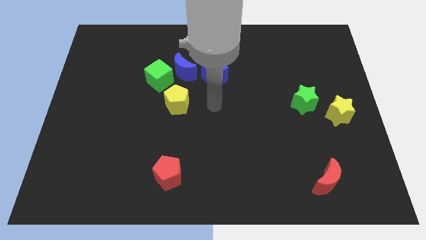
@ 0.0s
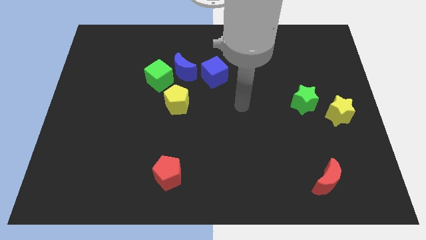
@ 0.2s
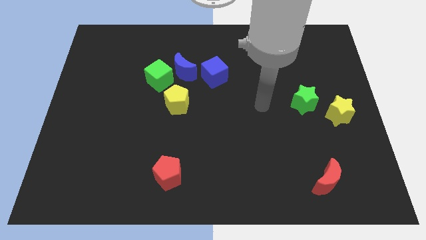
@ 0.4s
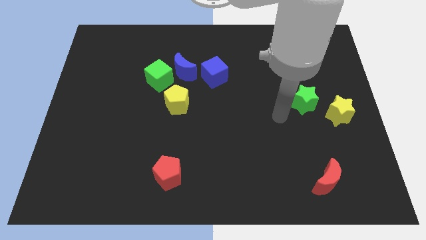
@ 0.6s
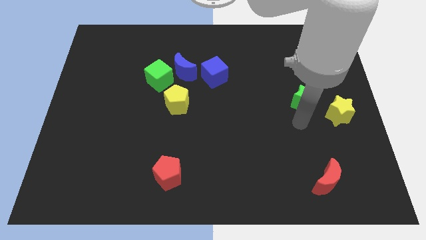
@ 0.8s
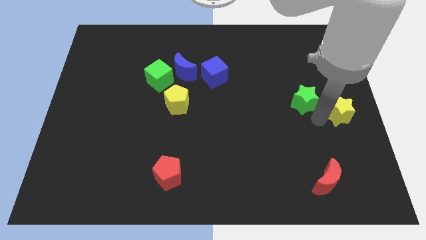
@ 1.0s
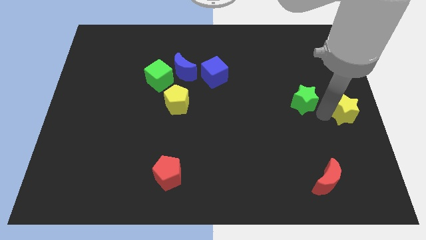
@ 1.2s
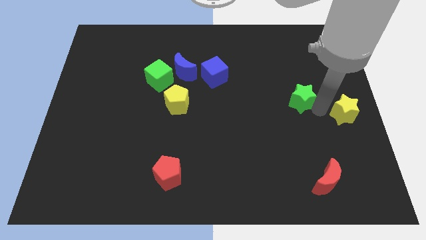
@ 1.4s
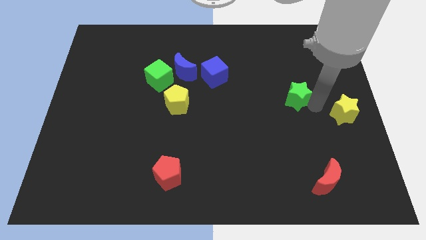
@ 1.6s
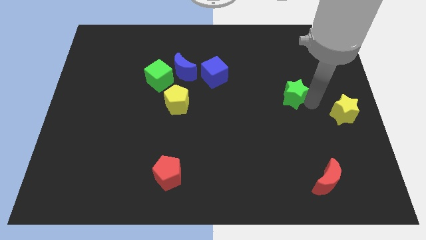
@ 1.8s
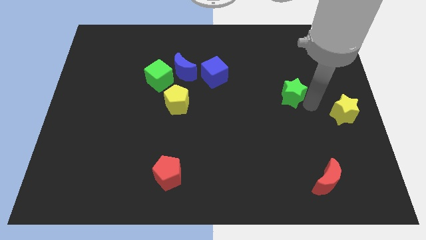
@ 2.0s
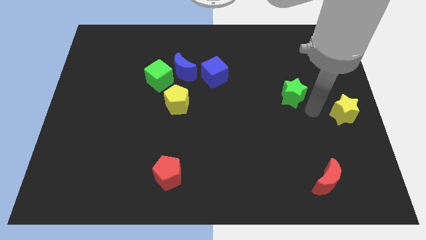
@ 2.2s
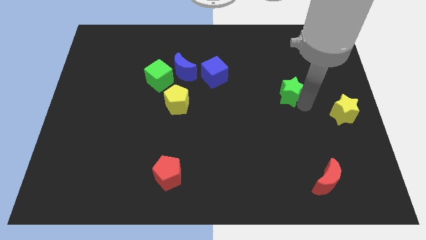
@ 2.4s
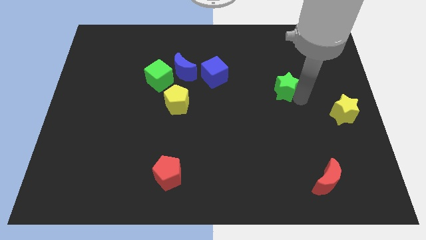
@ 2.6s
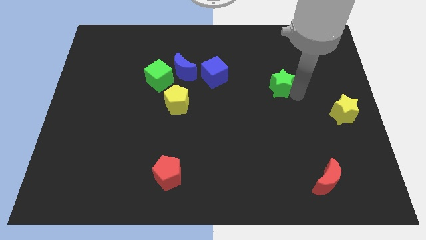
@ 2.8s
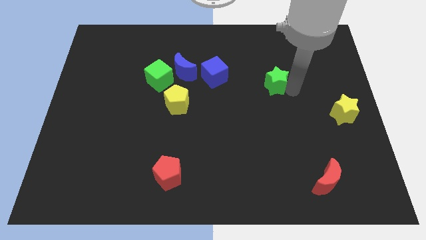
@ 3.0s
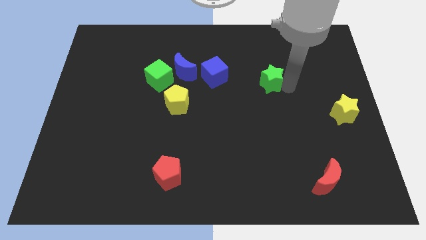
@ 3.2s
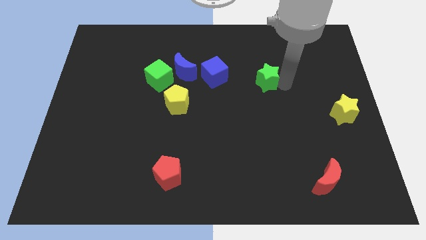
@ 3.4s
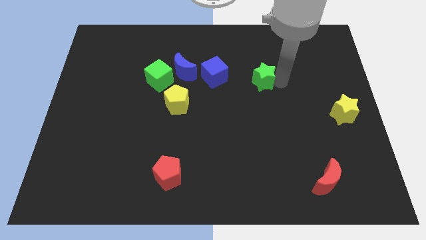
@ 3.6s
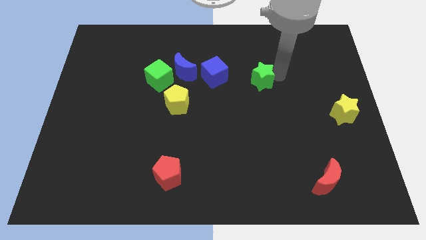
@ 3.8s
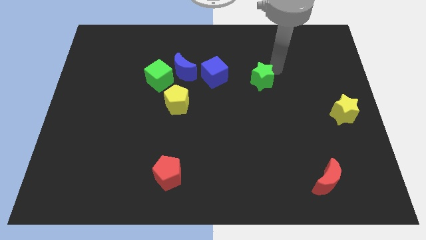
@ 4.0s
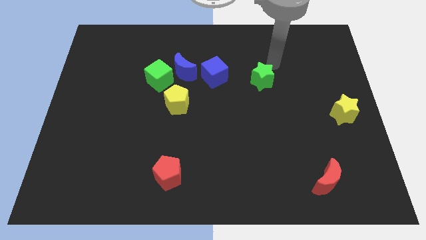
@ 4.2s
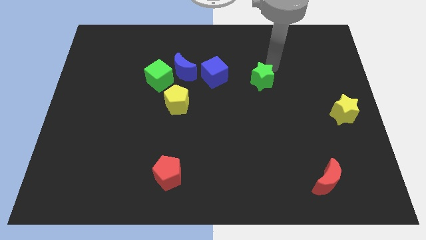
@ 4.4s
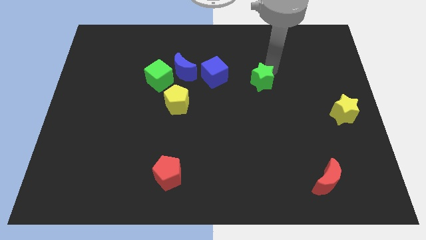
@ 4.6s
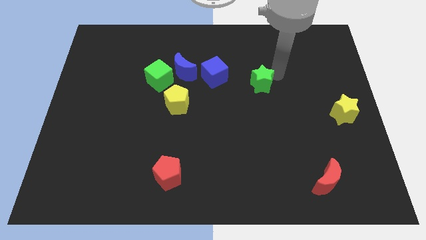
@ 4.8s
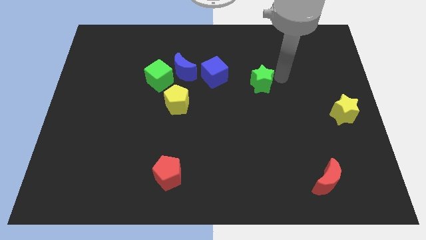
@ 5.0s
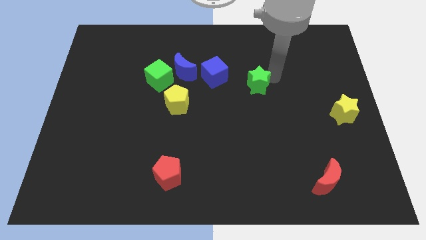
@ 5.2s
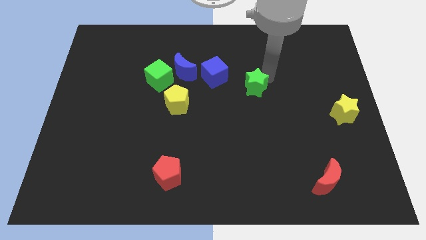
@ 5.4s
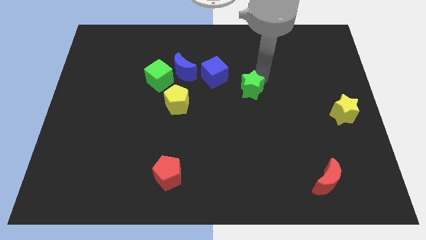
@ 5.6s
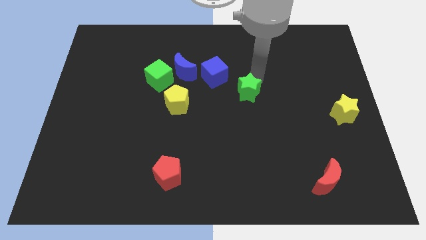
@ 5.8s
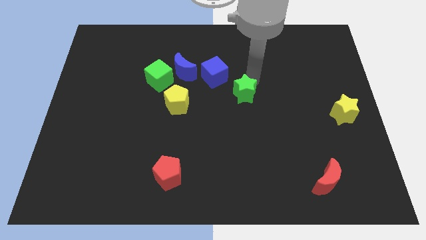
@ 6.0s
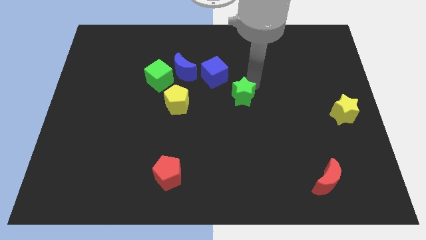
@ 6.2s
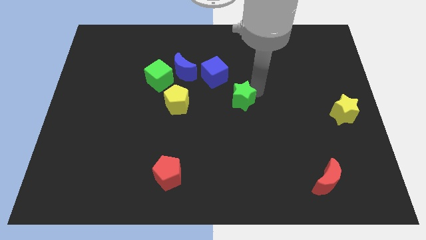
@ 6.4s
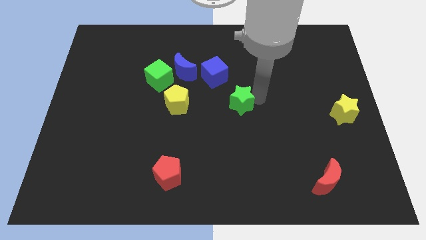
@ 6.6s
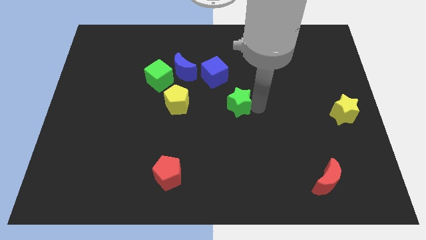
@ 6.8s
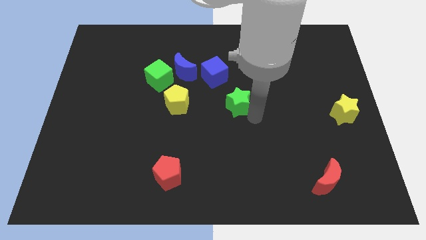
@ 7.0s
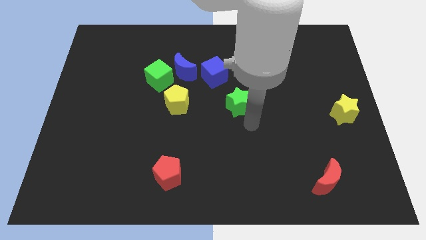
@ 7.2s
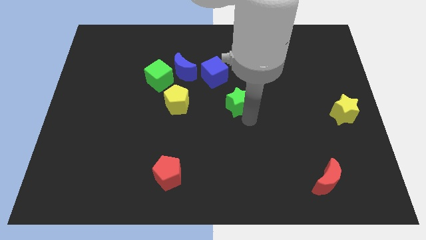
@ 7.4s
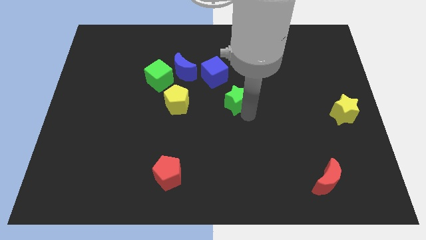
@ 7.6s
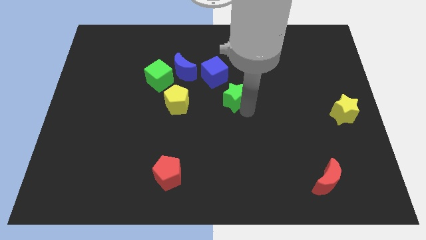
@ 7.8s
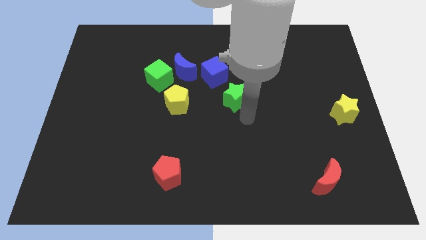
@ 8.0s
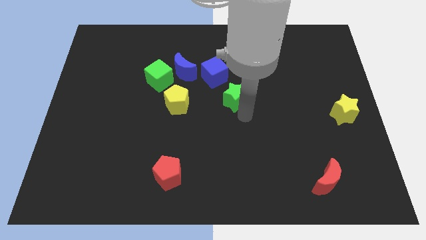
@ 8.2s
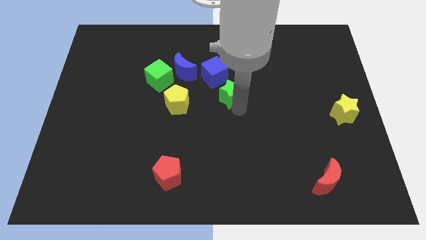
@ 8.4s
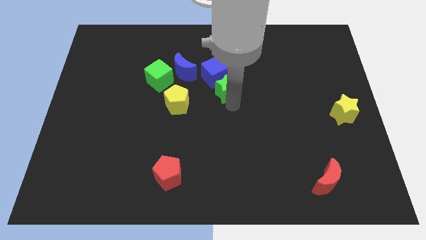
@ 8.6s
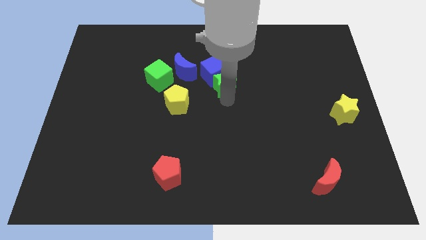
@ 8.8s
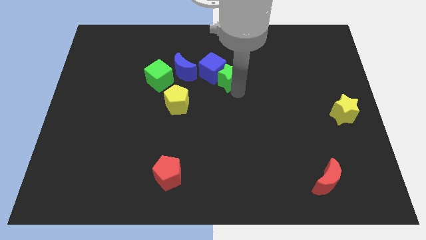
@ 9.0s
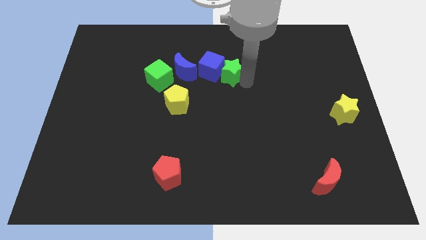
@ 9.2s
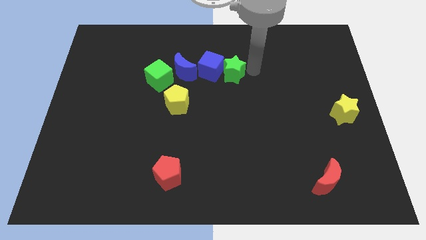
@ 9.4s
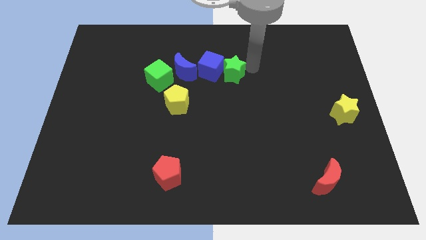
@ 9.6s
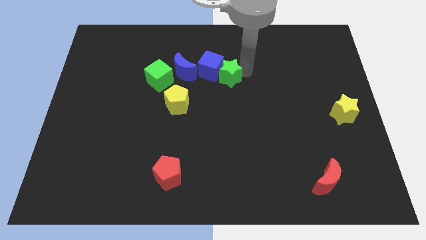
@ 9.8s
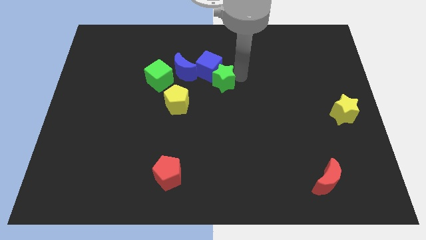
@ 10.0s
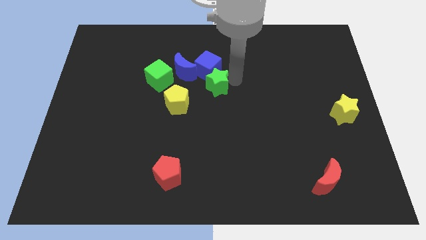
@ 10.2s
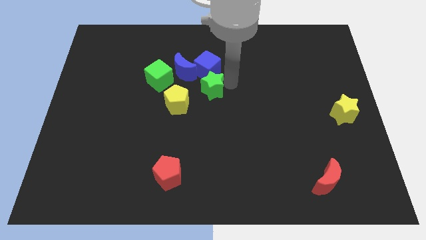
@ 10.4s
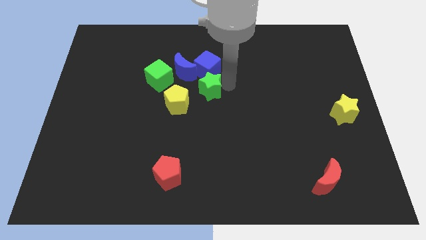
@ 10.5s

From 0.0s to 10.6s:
slide the green star diagonally down and to the left of the blue cube

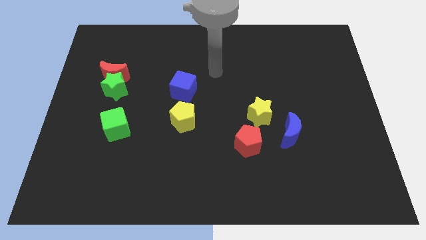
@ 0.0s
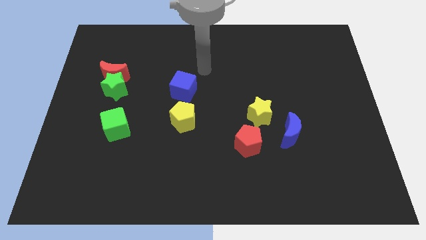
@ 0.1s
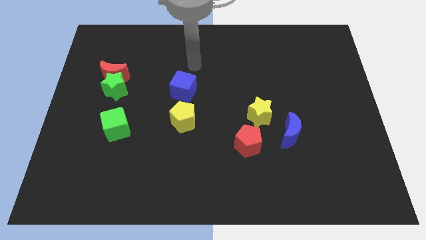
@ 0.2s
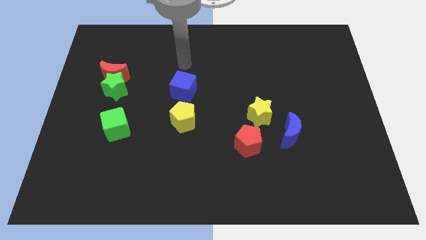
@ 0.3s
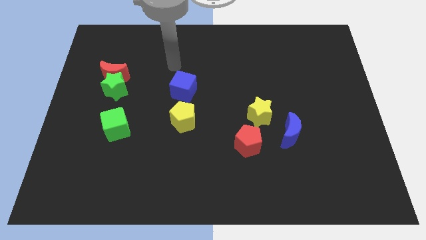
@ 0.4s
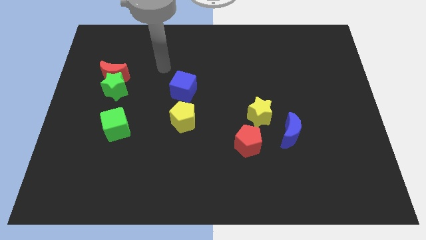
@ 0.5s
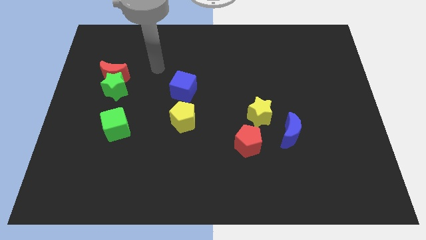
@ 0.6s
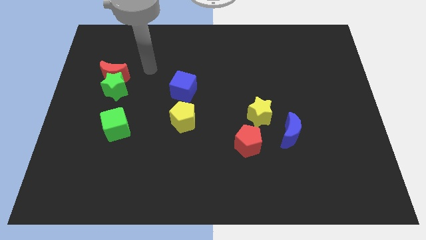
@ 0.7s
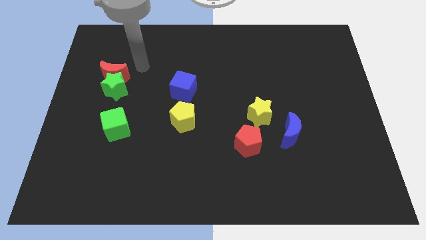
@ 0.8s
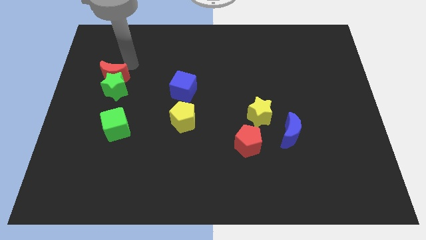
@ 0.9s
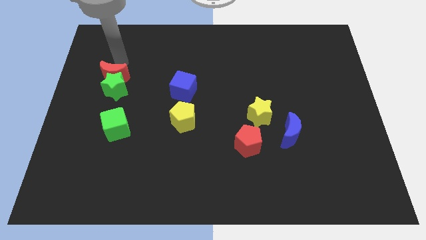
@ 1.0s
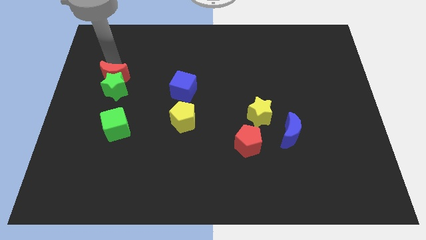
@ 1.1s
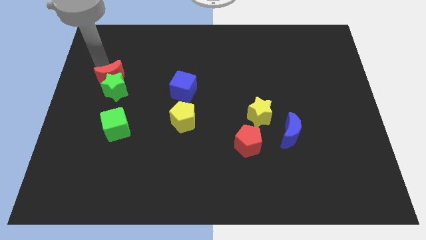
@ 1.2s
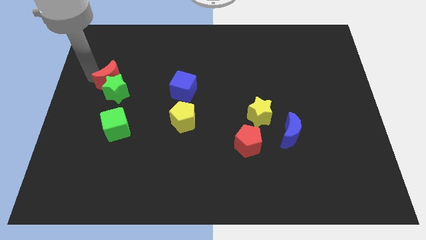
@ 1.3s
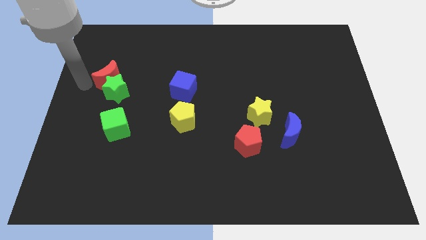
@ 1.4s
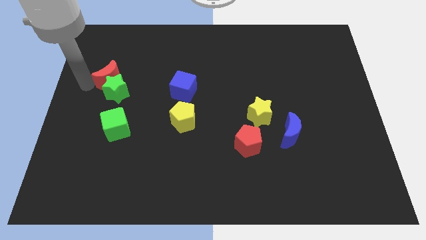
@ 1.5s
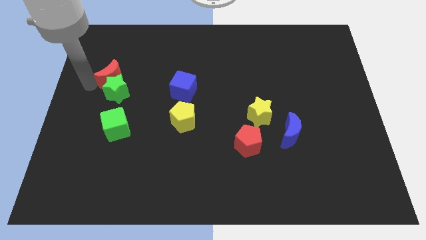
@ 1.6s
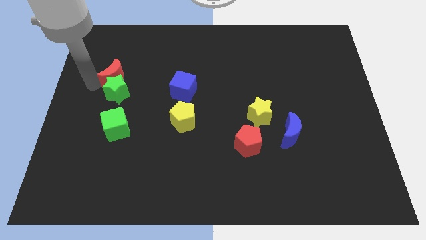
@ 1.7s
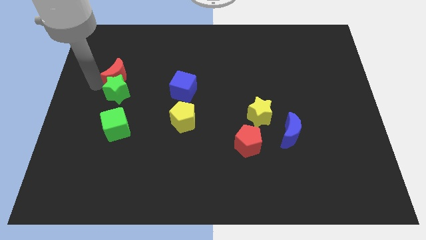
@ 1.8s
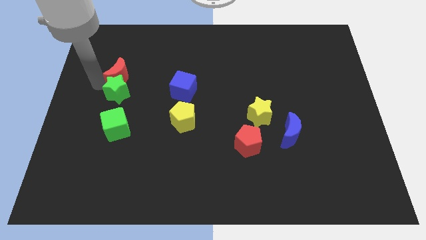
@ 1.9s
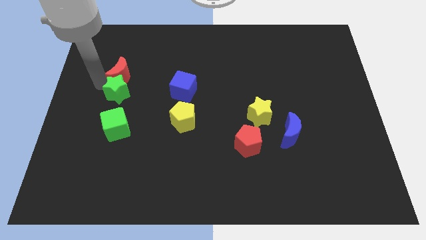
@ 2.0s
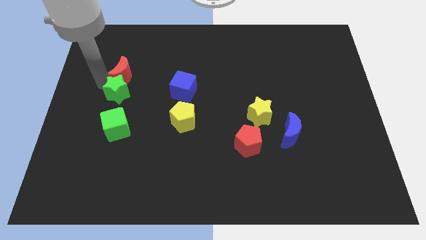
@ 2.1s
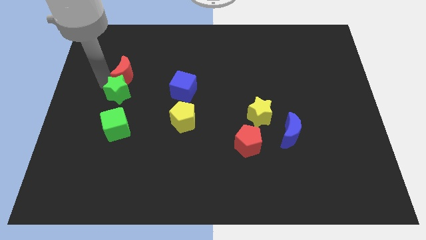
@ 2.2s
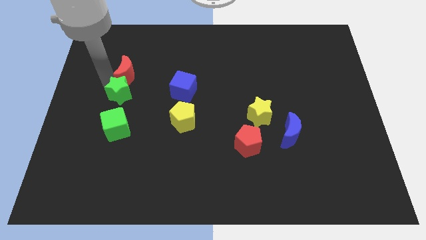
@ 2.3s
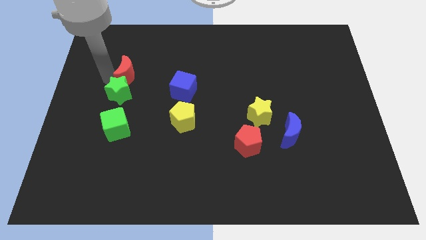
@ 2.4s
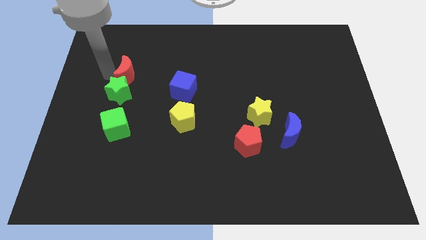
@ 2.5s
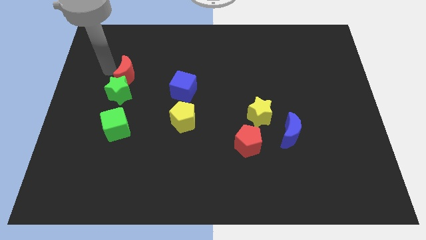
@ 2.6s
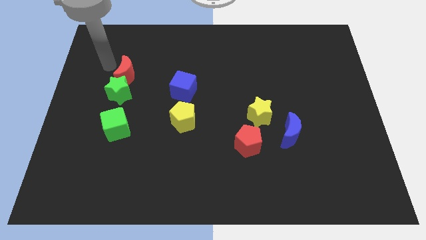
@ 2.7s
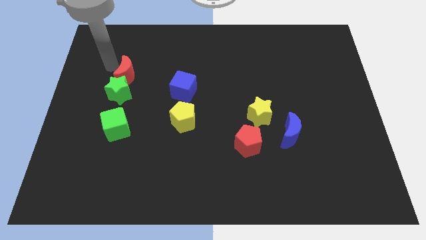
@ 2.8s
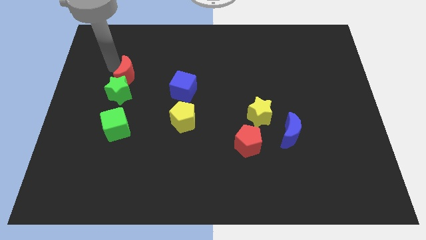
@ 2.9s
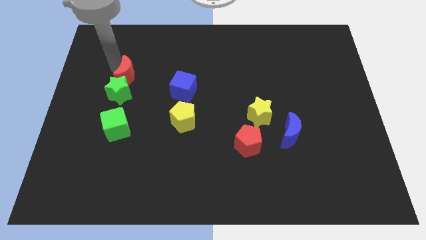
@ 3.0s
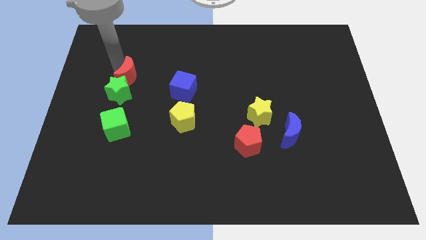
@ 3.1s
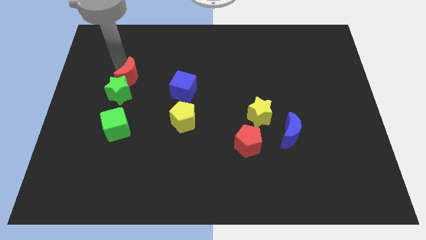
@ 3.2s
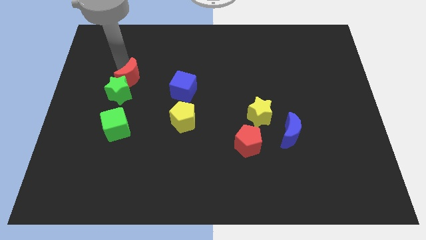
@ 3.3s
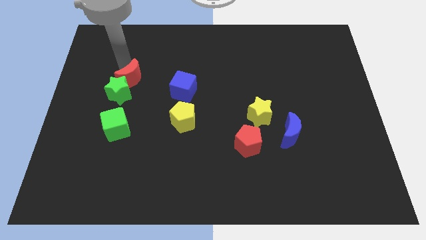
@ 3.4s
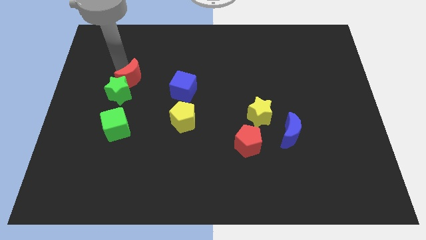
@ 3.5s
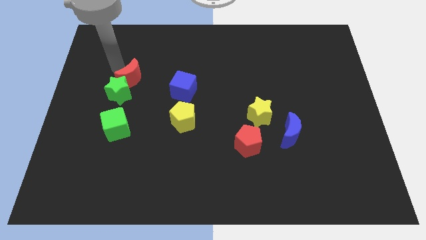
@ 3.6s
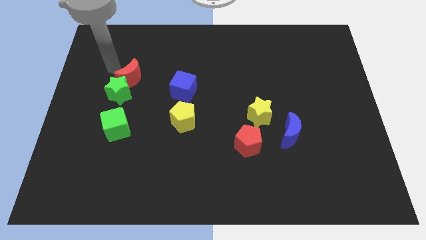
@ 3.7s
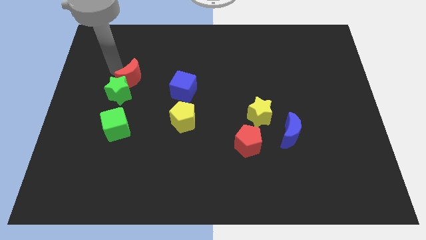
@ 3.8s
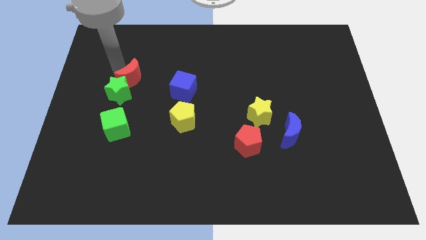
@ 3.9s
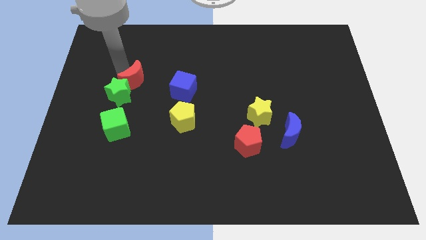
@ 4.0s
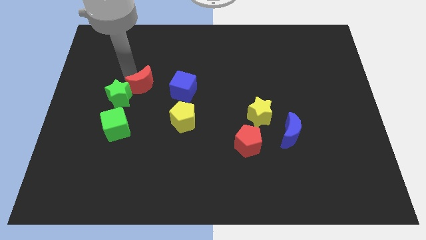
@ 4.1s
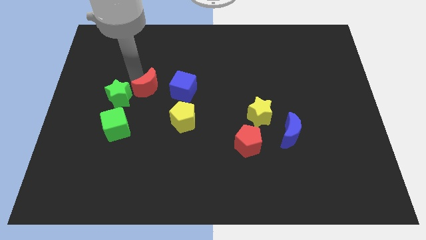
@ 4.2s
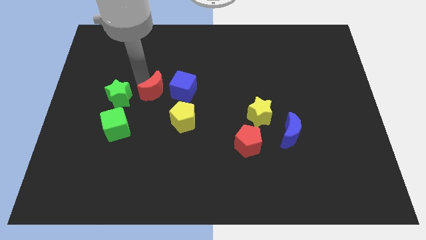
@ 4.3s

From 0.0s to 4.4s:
slide the red moon to the top left side of the yellow pentagon
